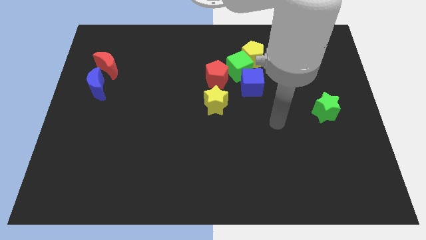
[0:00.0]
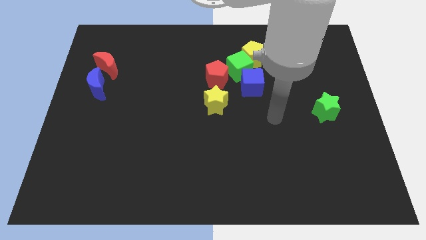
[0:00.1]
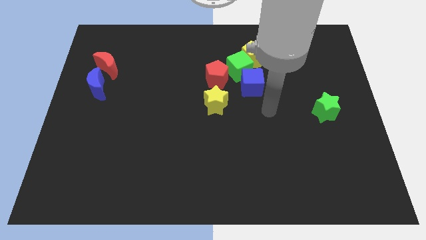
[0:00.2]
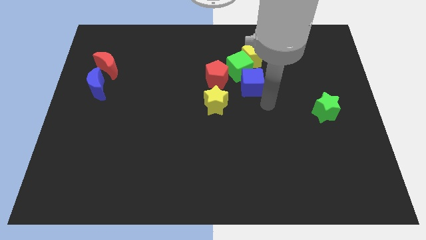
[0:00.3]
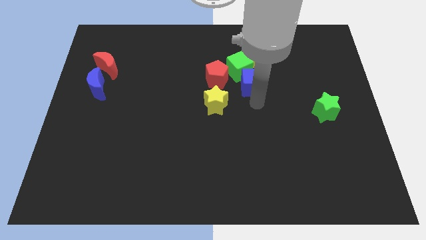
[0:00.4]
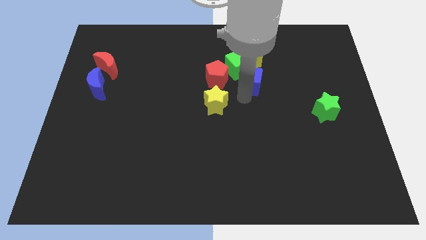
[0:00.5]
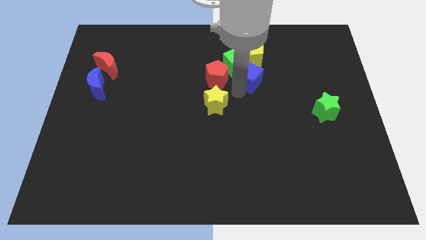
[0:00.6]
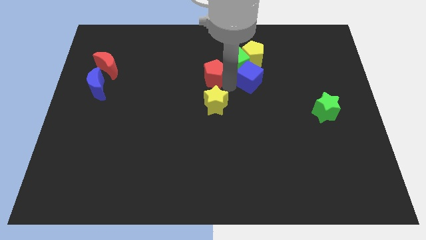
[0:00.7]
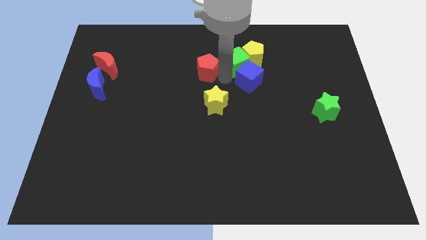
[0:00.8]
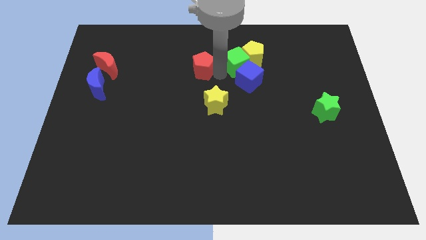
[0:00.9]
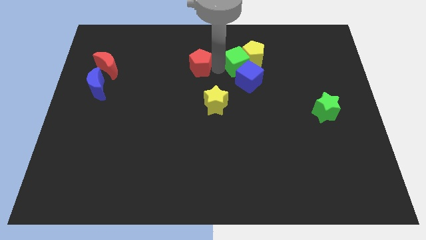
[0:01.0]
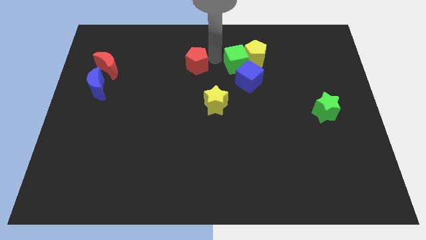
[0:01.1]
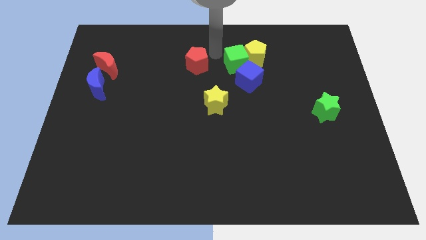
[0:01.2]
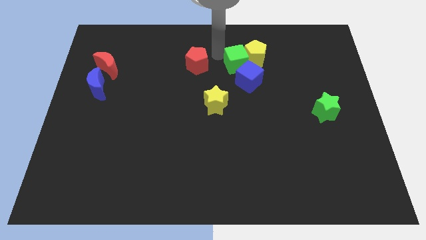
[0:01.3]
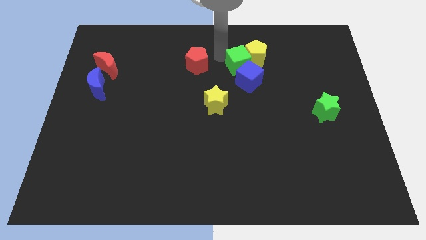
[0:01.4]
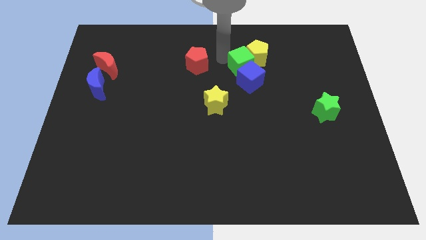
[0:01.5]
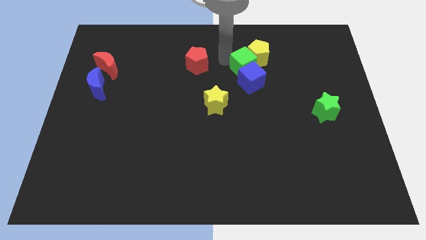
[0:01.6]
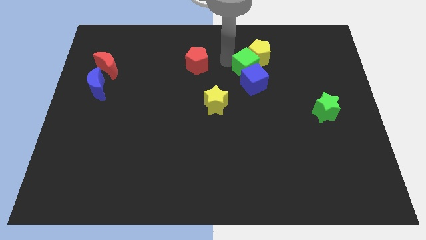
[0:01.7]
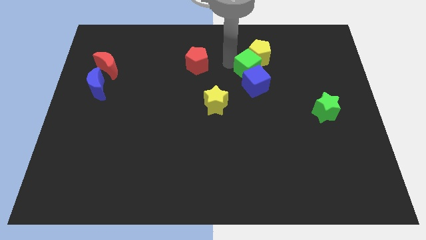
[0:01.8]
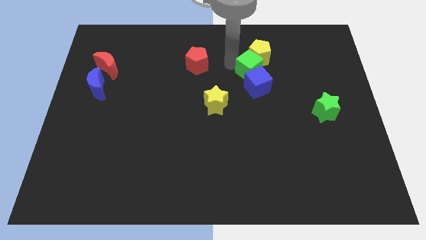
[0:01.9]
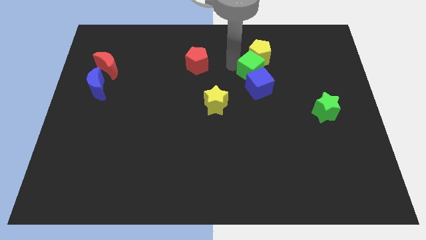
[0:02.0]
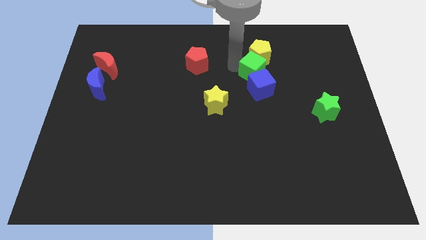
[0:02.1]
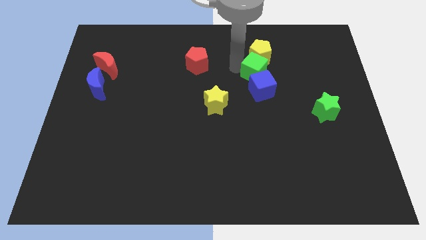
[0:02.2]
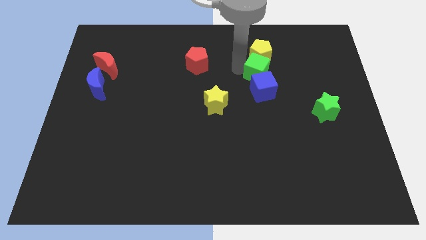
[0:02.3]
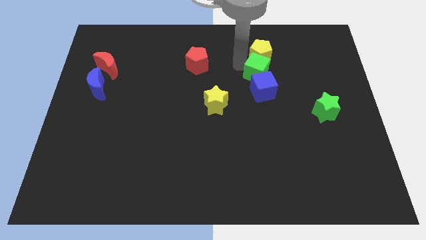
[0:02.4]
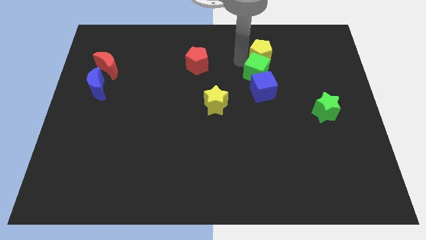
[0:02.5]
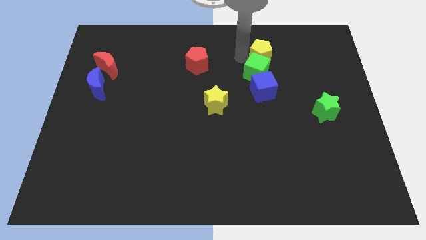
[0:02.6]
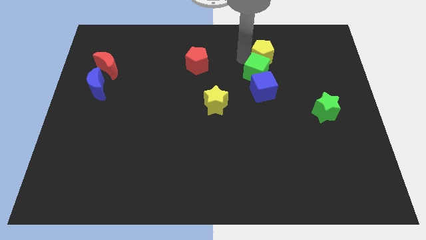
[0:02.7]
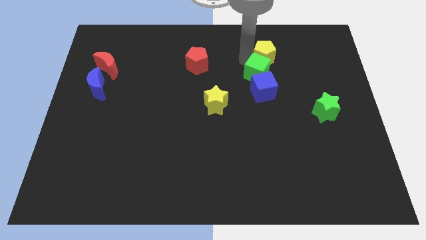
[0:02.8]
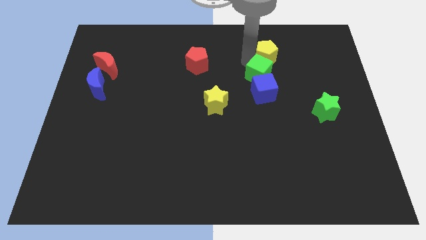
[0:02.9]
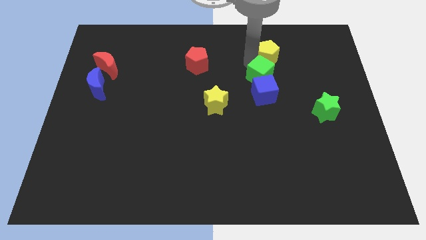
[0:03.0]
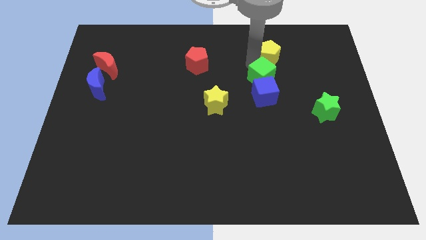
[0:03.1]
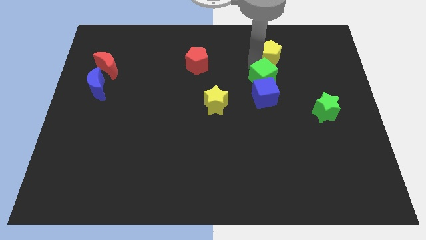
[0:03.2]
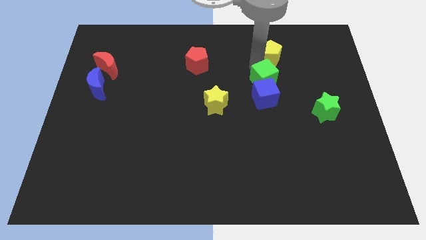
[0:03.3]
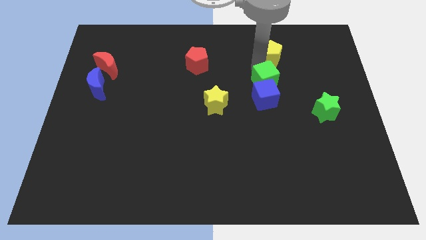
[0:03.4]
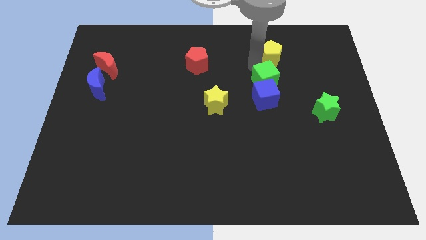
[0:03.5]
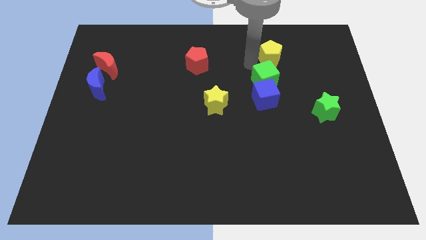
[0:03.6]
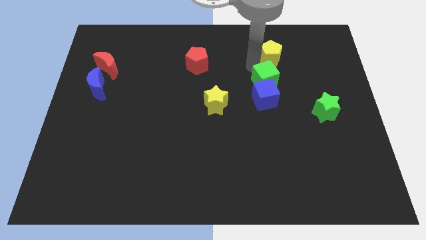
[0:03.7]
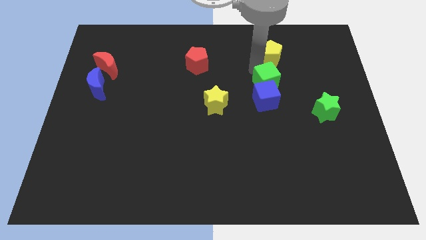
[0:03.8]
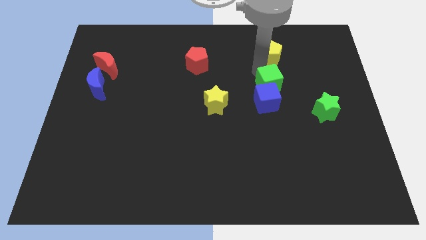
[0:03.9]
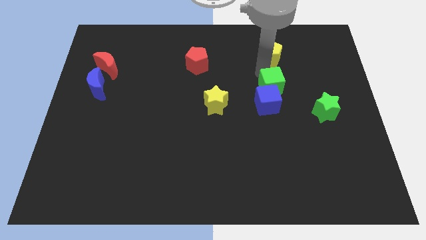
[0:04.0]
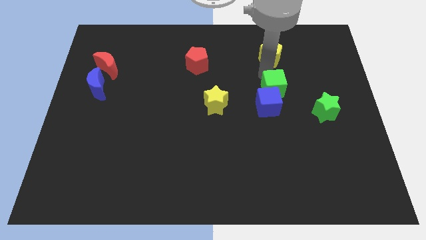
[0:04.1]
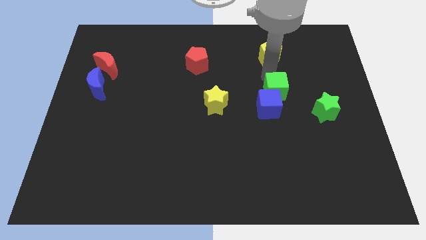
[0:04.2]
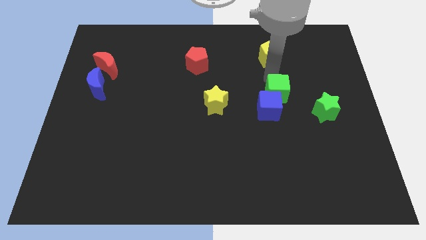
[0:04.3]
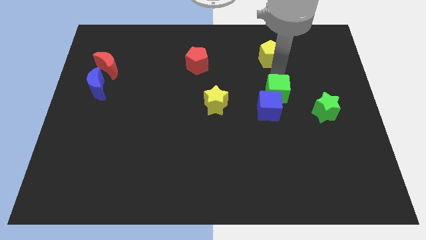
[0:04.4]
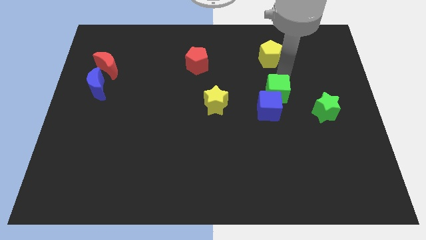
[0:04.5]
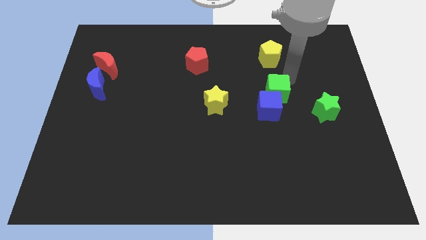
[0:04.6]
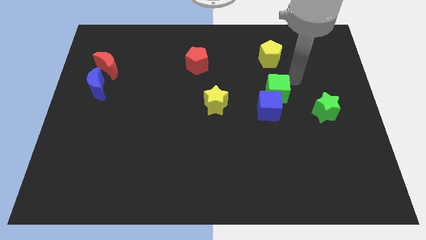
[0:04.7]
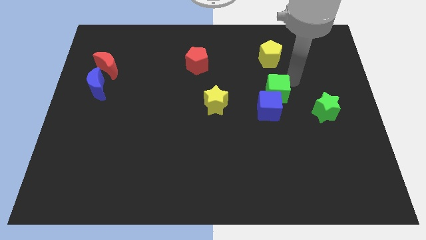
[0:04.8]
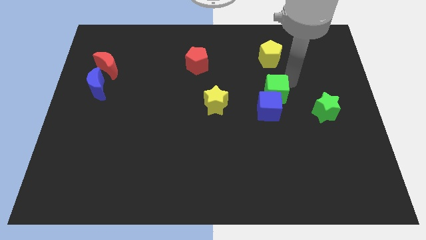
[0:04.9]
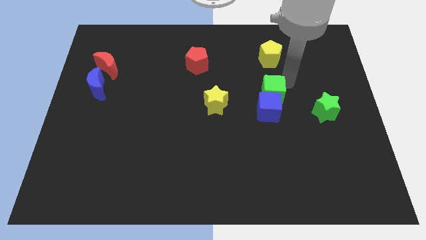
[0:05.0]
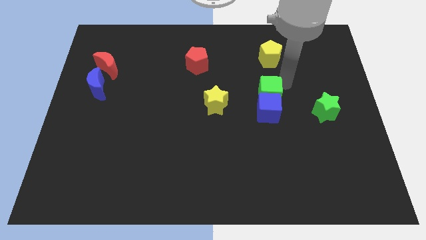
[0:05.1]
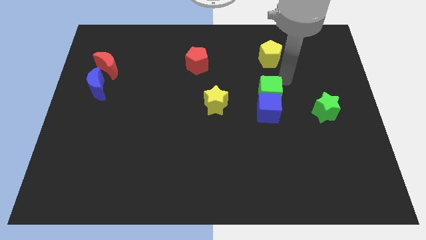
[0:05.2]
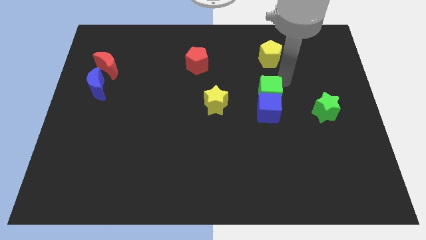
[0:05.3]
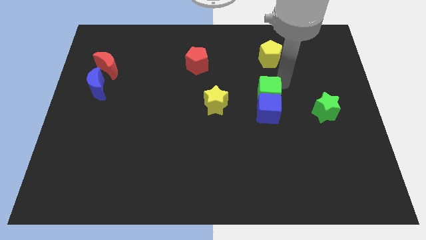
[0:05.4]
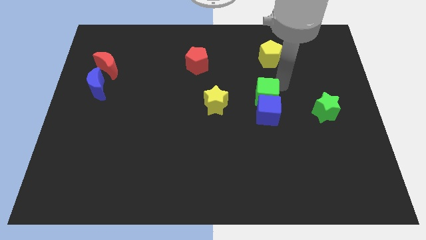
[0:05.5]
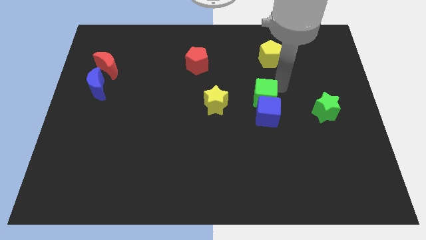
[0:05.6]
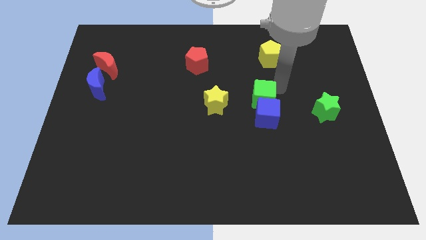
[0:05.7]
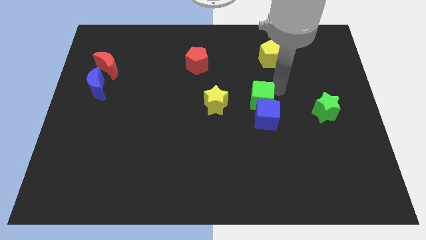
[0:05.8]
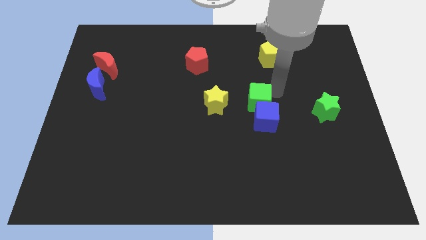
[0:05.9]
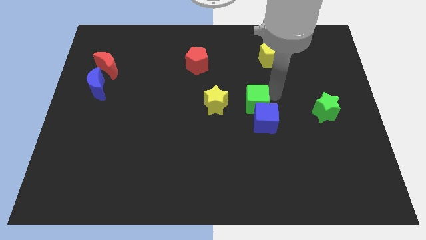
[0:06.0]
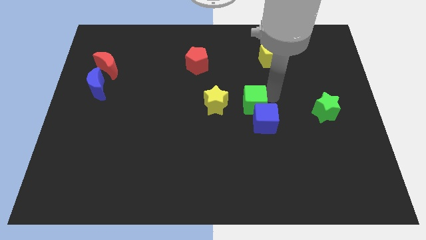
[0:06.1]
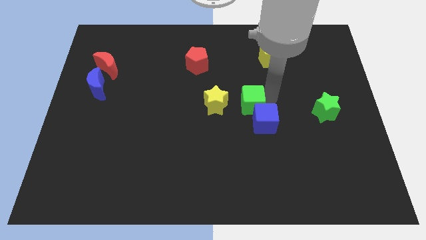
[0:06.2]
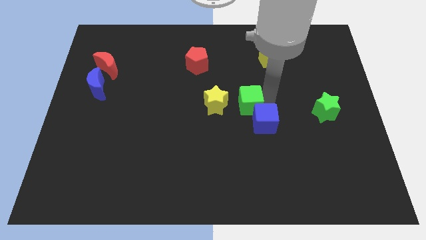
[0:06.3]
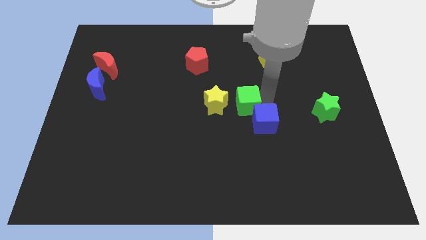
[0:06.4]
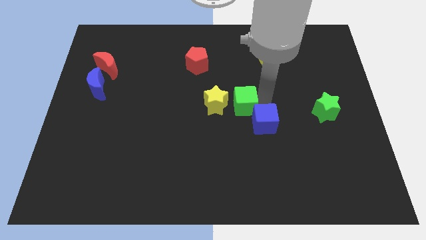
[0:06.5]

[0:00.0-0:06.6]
slide the green cube diagonally down and to the right of the yellow star

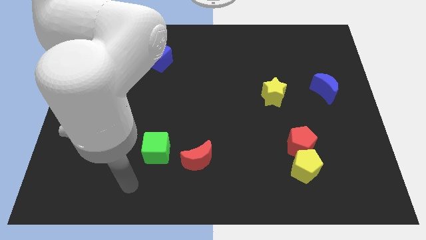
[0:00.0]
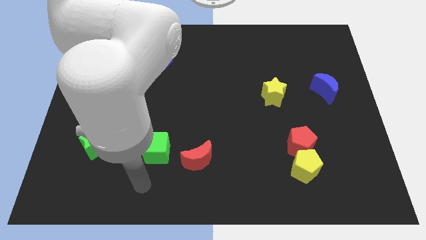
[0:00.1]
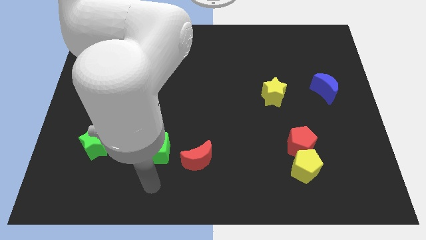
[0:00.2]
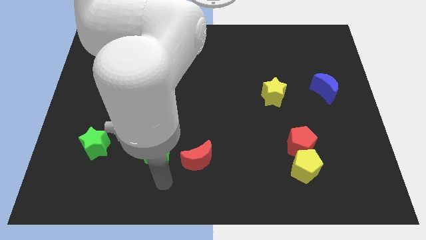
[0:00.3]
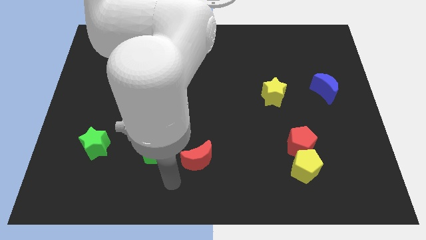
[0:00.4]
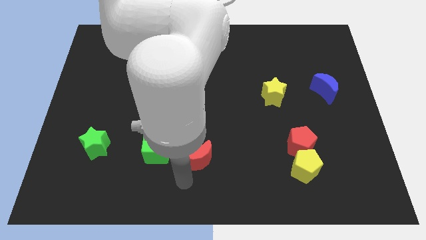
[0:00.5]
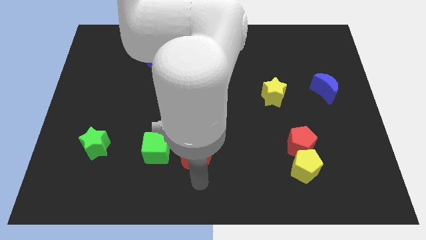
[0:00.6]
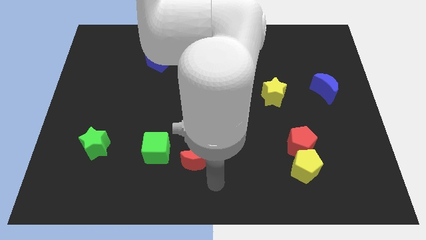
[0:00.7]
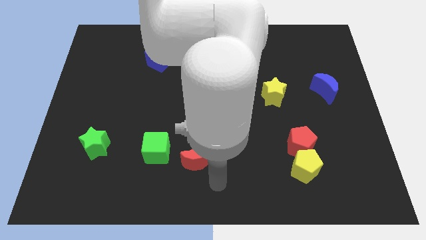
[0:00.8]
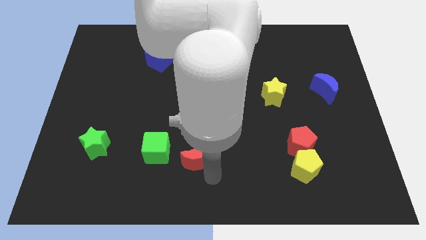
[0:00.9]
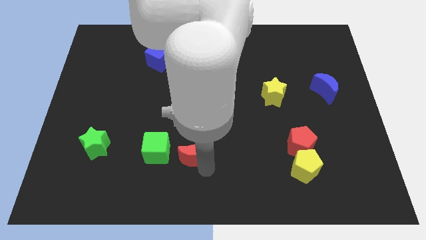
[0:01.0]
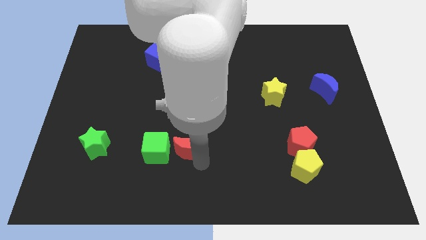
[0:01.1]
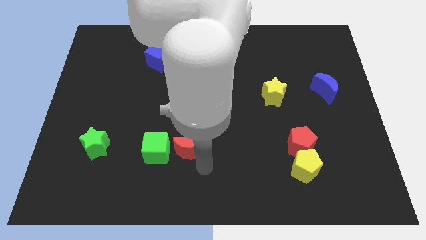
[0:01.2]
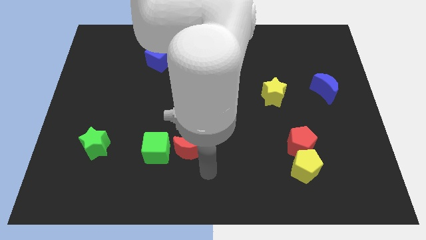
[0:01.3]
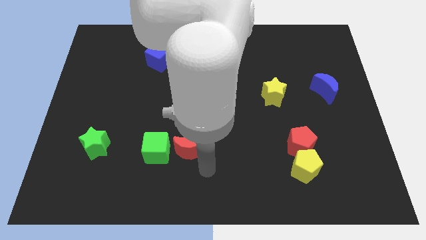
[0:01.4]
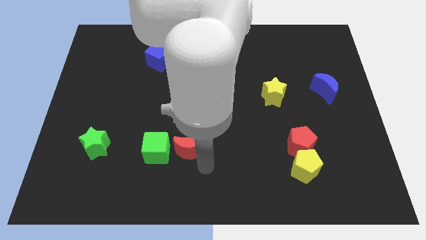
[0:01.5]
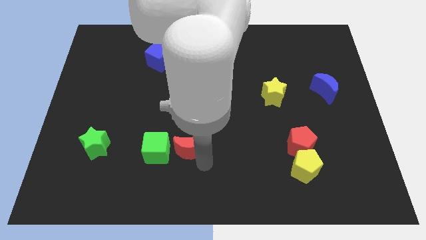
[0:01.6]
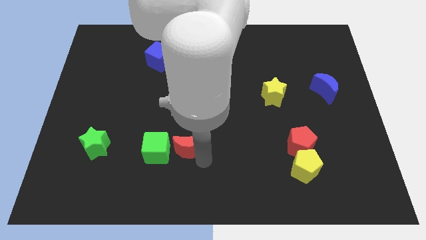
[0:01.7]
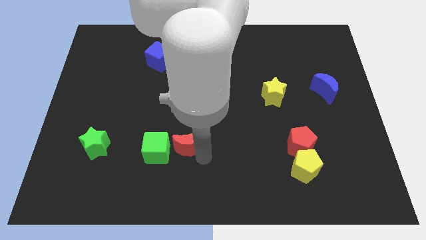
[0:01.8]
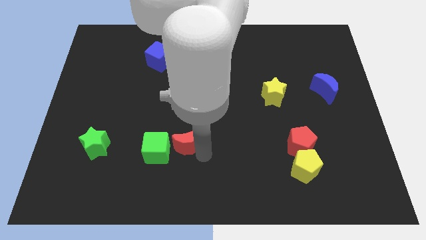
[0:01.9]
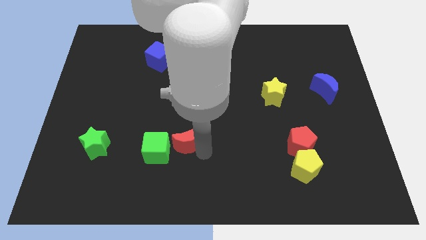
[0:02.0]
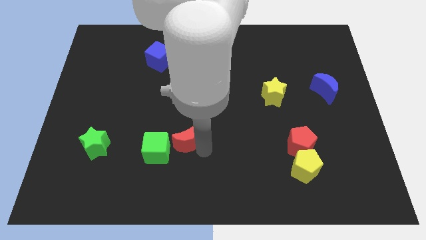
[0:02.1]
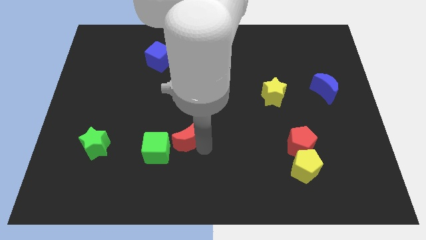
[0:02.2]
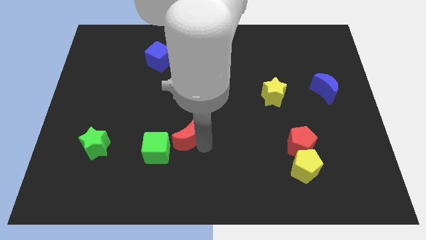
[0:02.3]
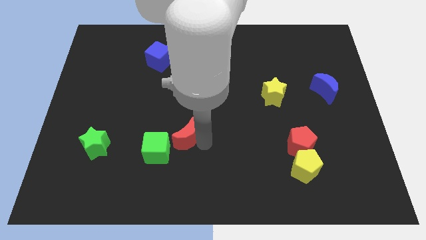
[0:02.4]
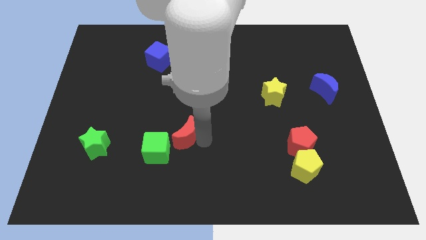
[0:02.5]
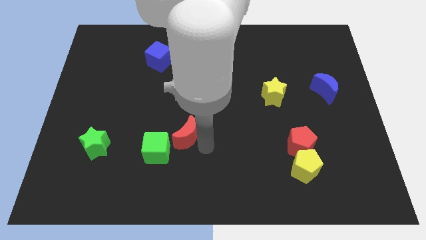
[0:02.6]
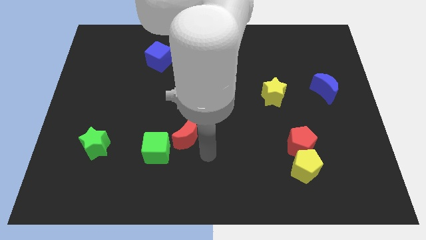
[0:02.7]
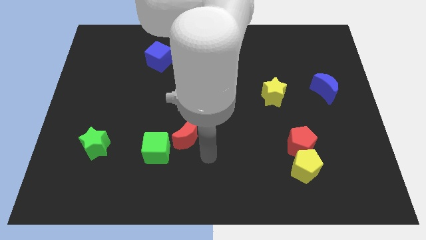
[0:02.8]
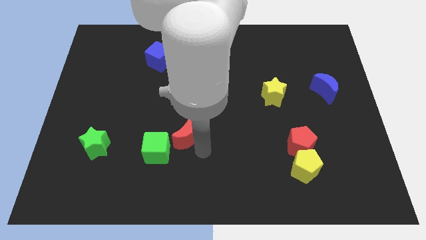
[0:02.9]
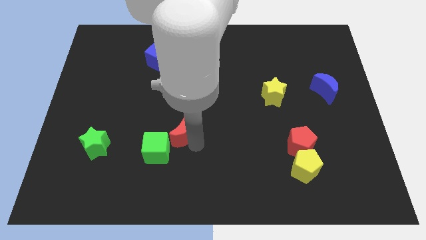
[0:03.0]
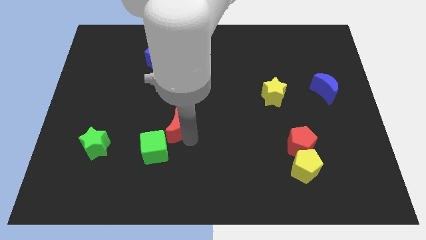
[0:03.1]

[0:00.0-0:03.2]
slide the red moon to the top side of the green cube
